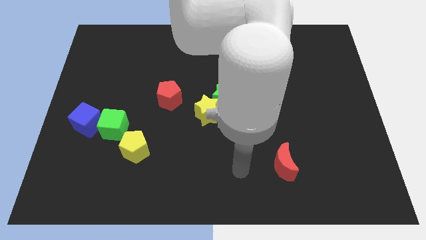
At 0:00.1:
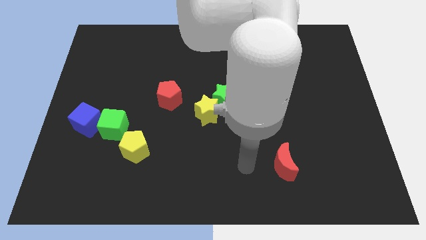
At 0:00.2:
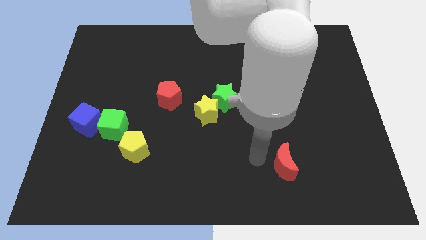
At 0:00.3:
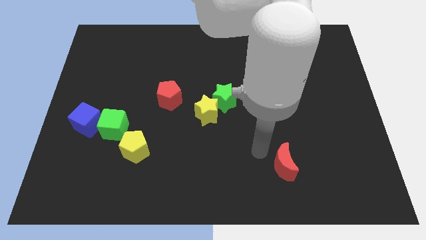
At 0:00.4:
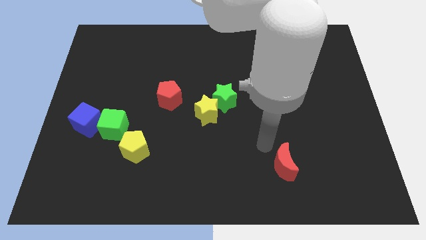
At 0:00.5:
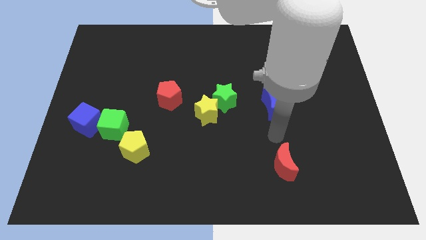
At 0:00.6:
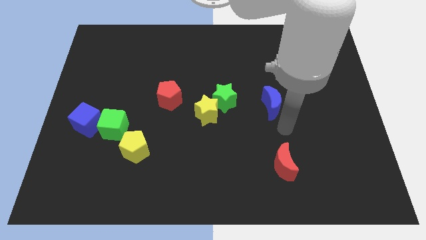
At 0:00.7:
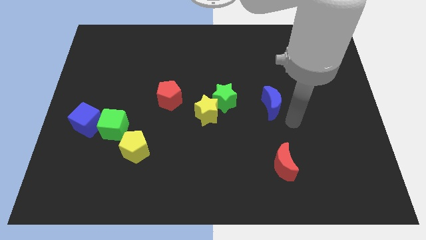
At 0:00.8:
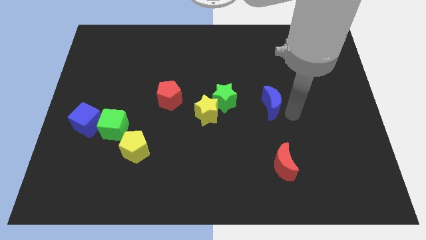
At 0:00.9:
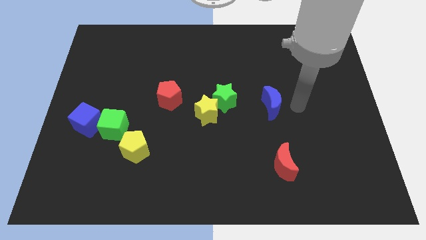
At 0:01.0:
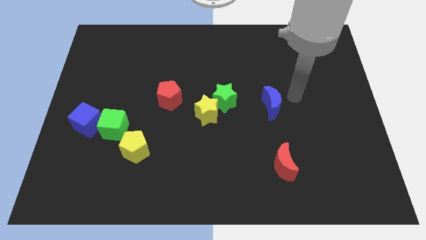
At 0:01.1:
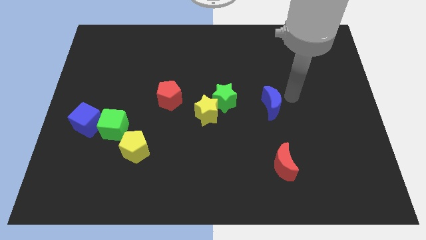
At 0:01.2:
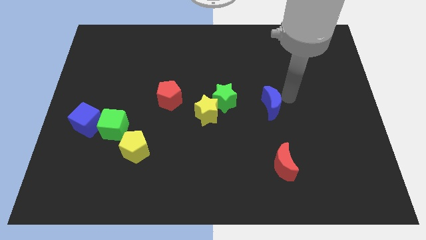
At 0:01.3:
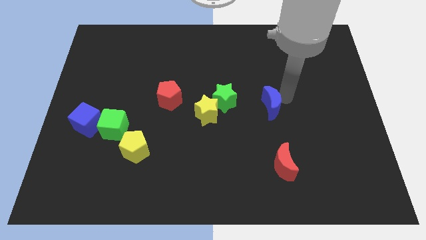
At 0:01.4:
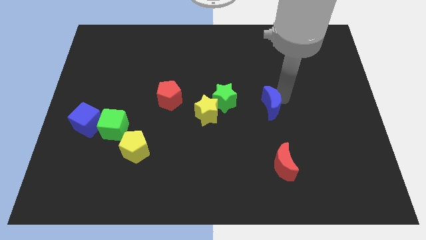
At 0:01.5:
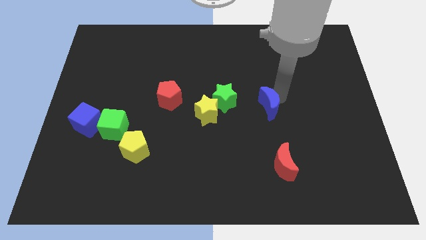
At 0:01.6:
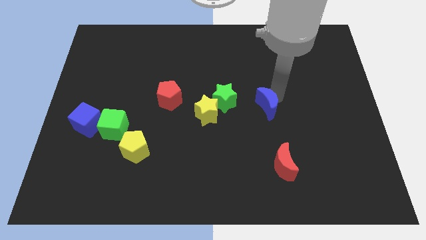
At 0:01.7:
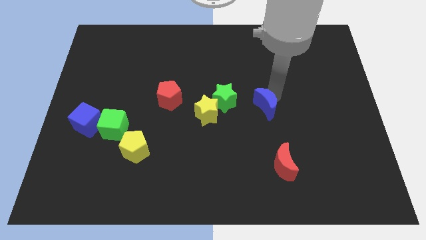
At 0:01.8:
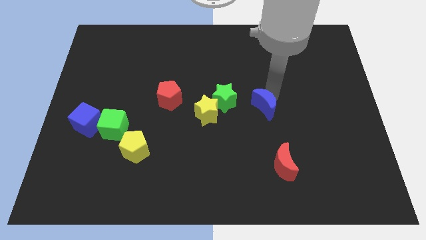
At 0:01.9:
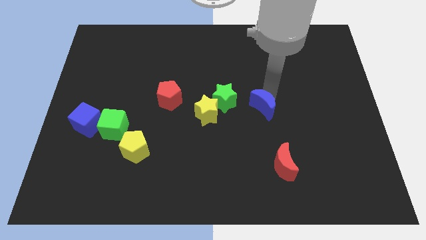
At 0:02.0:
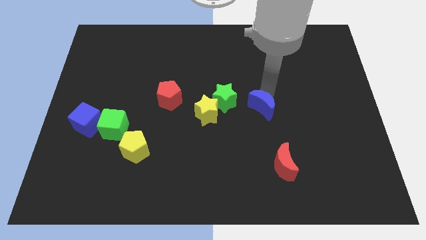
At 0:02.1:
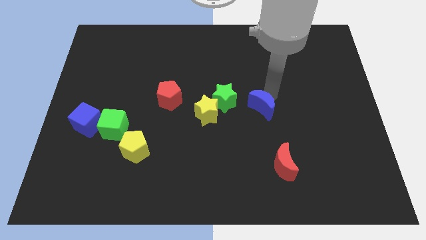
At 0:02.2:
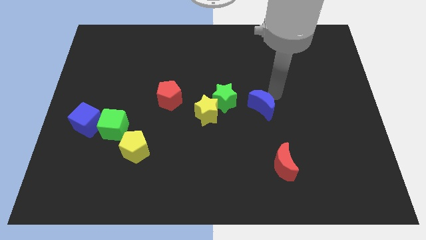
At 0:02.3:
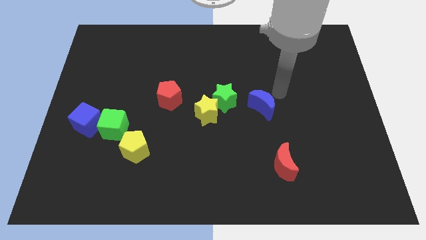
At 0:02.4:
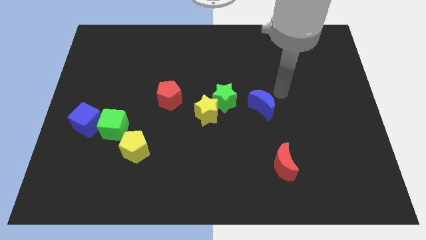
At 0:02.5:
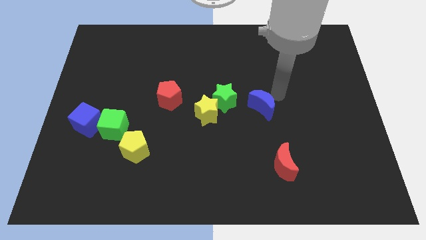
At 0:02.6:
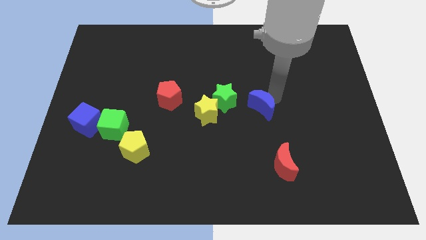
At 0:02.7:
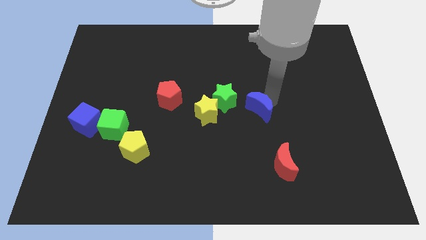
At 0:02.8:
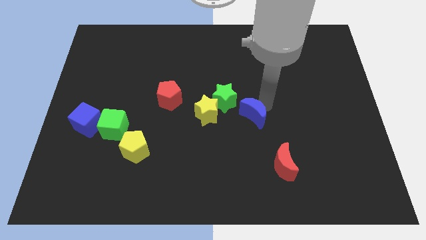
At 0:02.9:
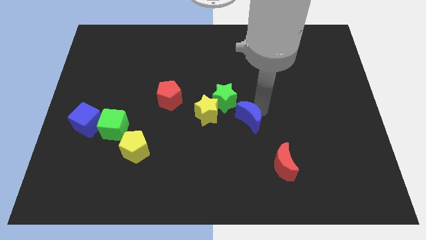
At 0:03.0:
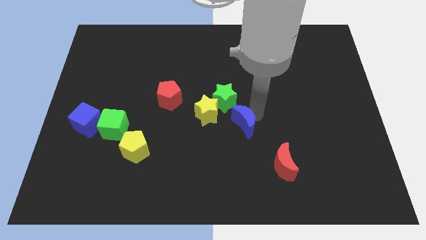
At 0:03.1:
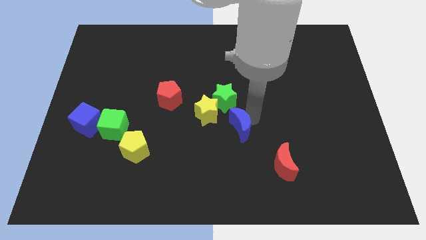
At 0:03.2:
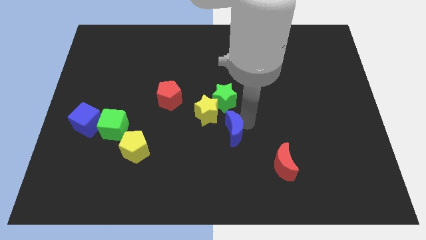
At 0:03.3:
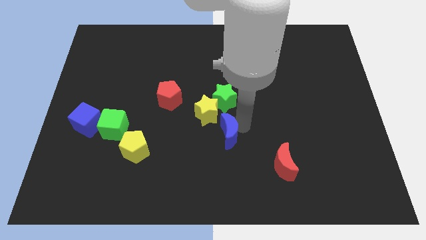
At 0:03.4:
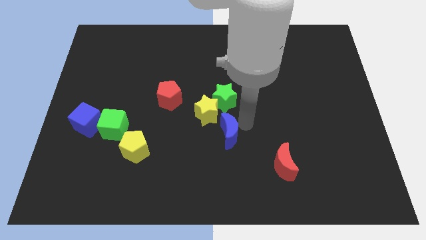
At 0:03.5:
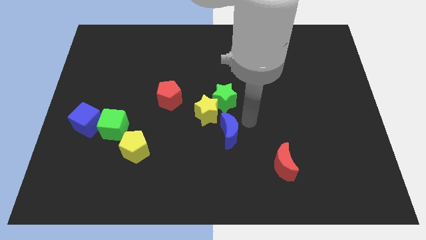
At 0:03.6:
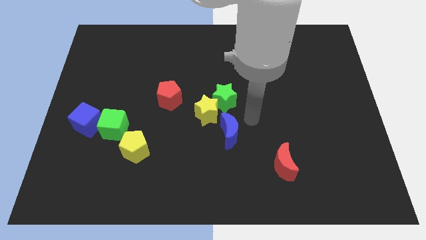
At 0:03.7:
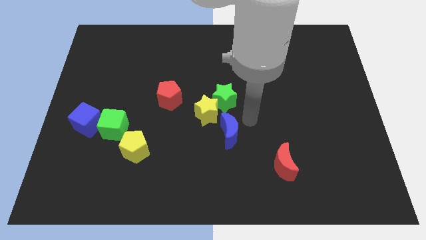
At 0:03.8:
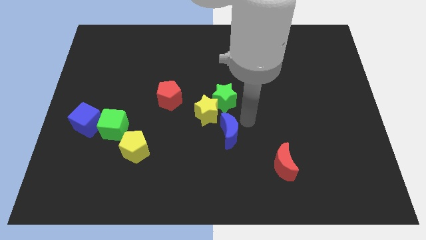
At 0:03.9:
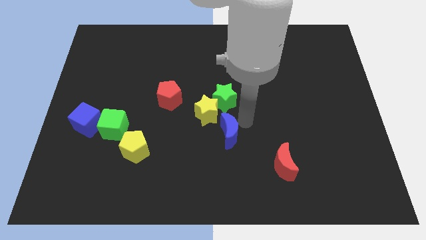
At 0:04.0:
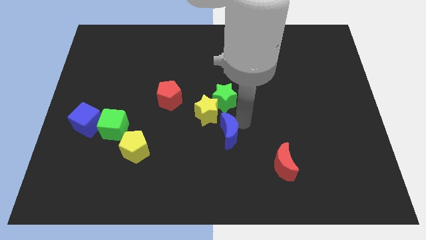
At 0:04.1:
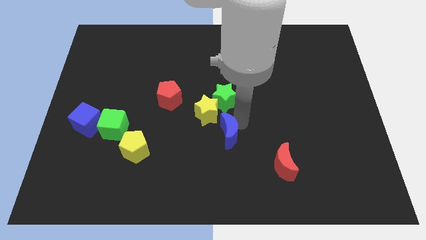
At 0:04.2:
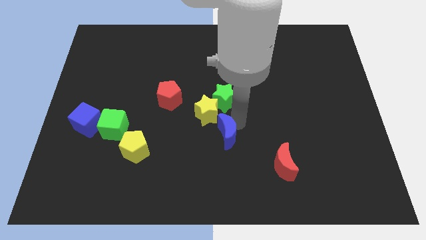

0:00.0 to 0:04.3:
push the blue moon below the yellow star

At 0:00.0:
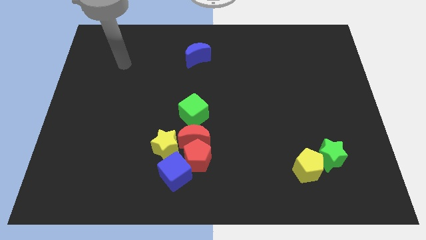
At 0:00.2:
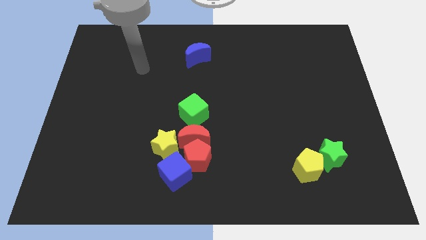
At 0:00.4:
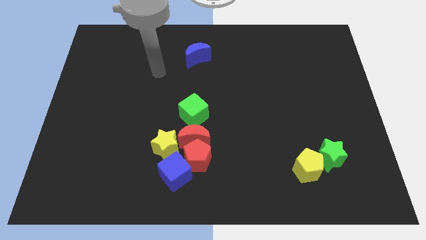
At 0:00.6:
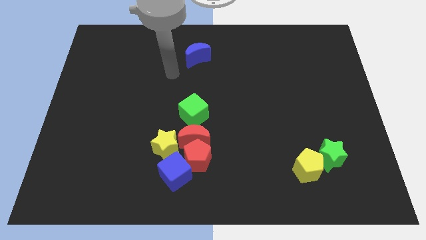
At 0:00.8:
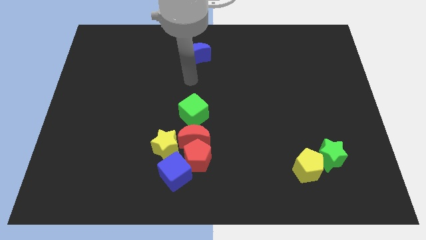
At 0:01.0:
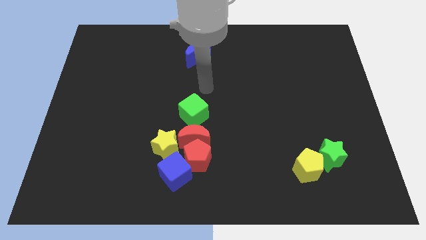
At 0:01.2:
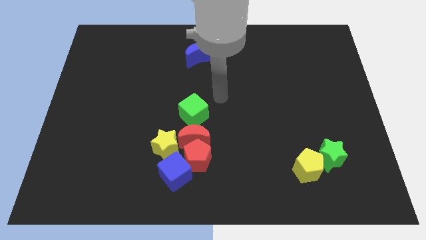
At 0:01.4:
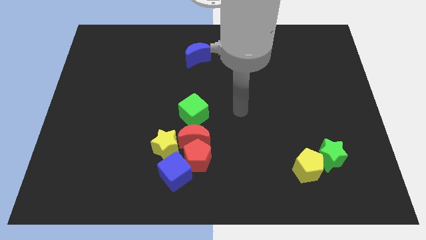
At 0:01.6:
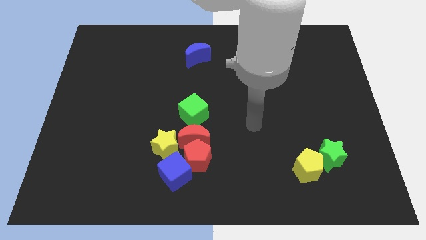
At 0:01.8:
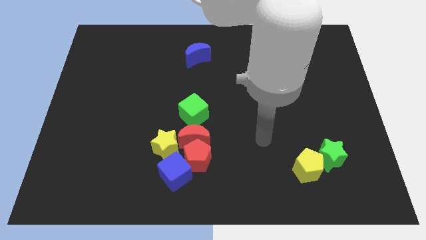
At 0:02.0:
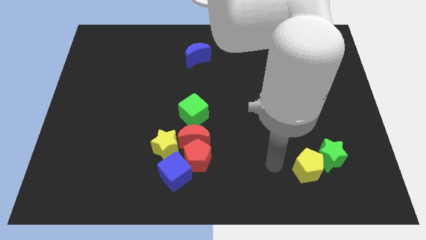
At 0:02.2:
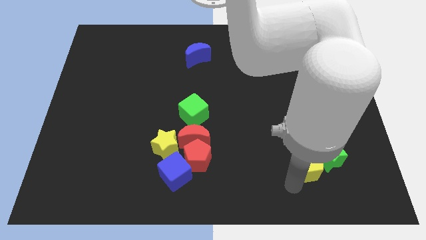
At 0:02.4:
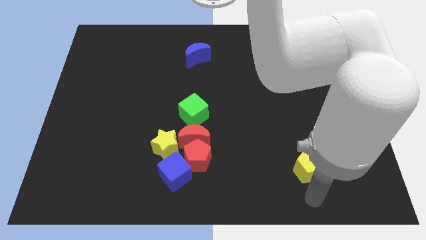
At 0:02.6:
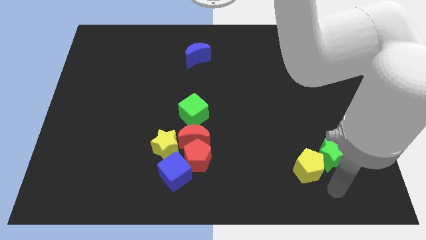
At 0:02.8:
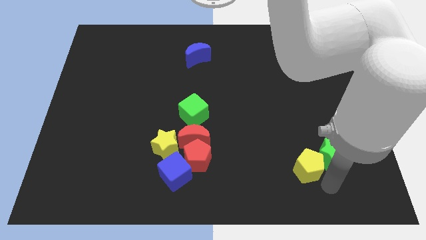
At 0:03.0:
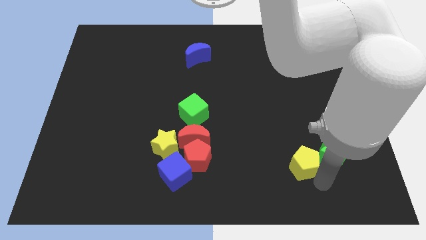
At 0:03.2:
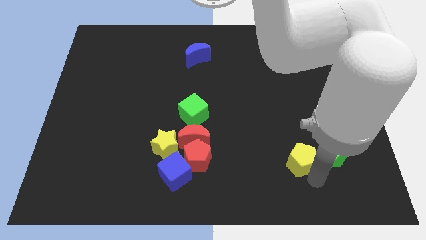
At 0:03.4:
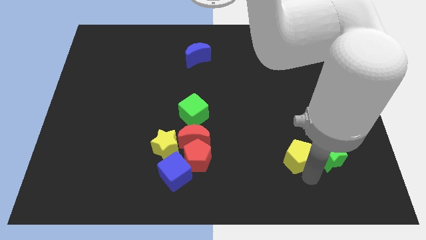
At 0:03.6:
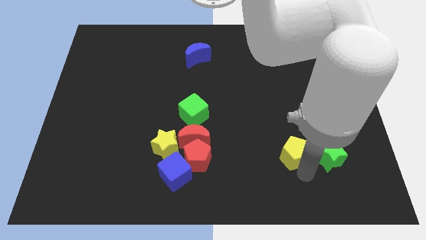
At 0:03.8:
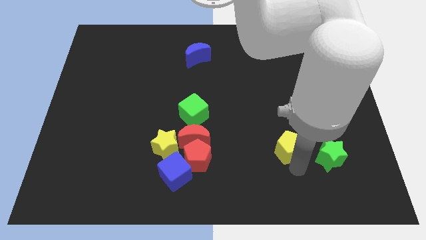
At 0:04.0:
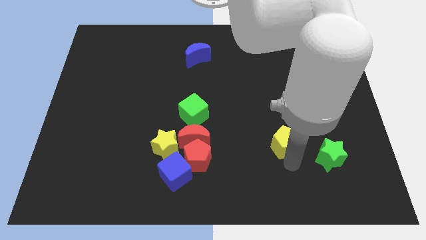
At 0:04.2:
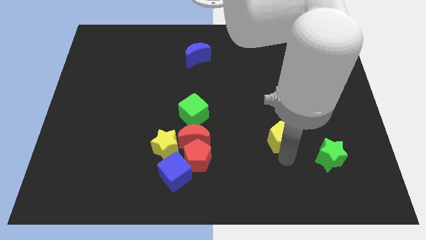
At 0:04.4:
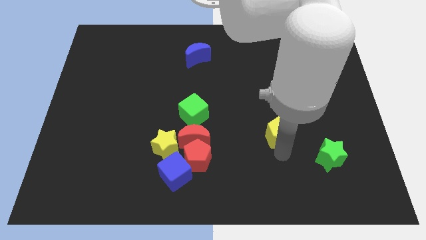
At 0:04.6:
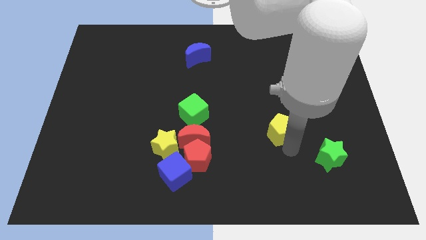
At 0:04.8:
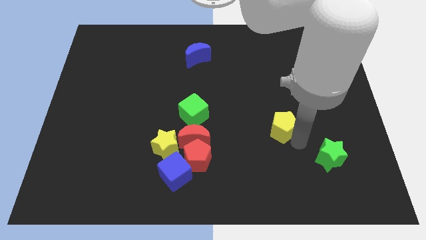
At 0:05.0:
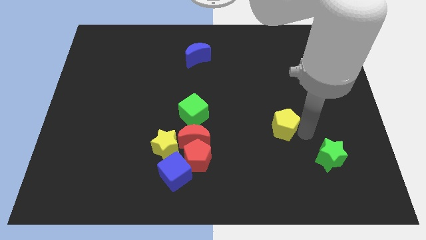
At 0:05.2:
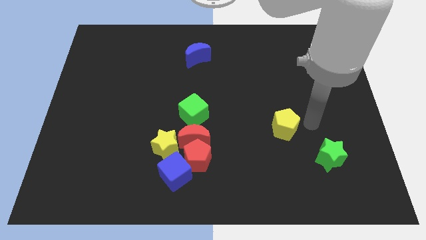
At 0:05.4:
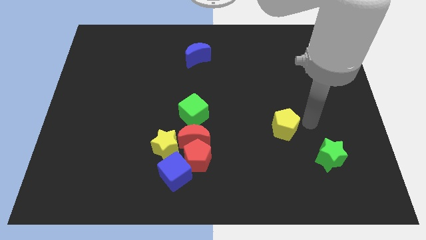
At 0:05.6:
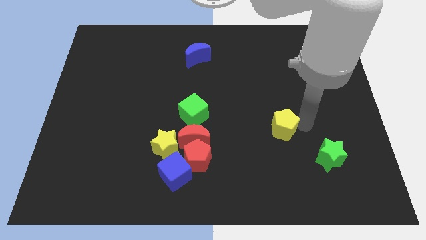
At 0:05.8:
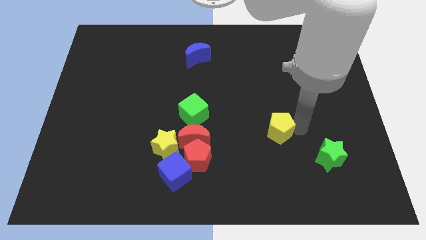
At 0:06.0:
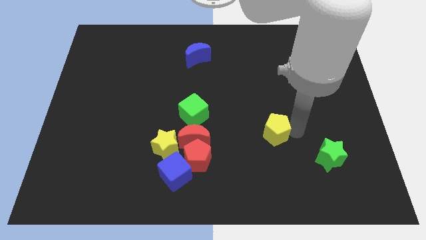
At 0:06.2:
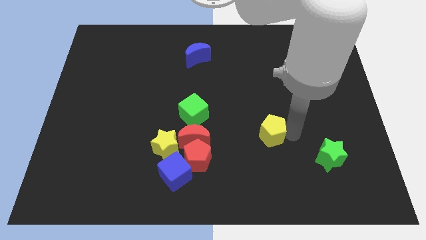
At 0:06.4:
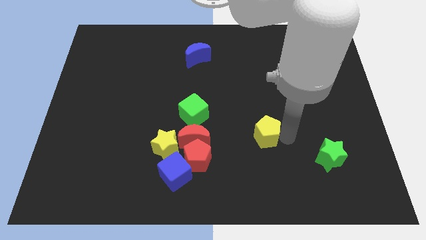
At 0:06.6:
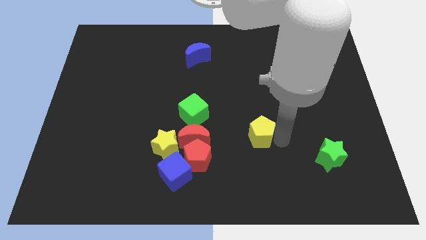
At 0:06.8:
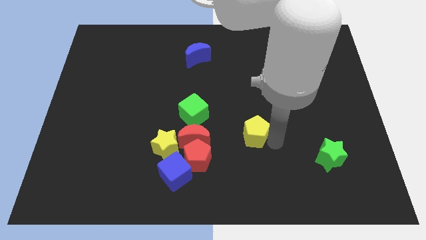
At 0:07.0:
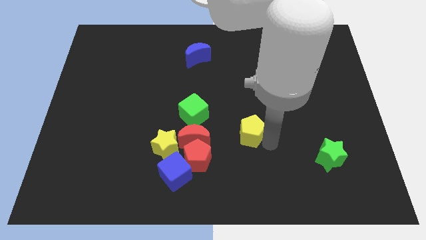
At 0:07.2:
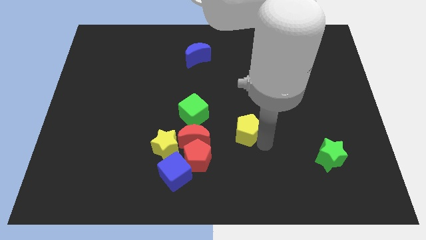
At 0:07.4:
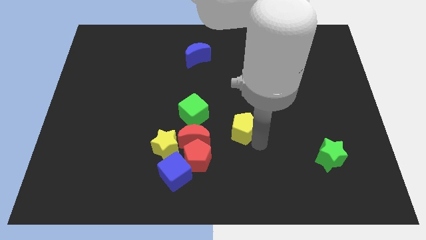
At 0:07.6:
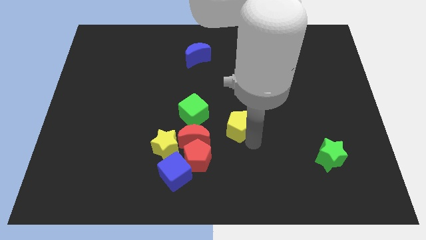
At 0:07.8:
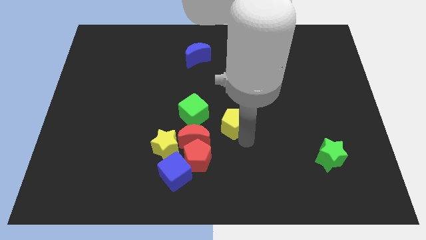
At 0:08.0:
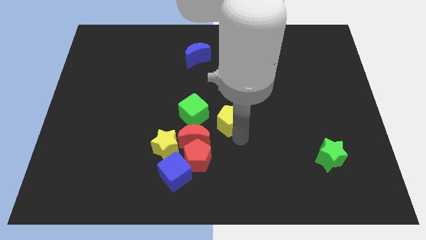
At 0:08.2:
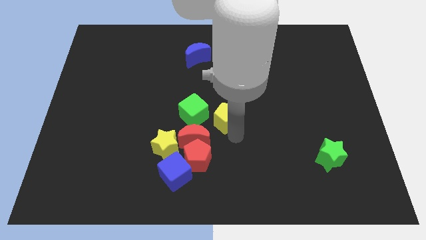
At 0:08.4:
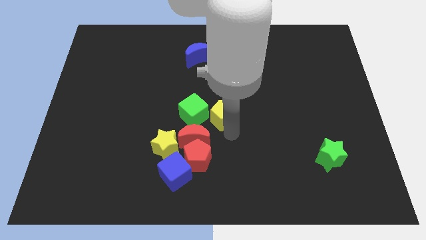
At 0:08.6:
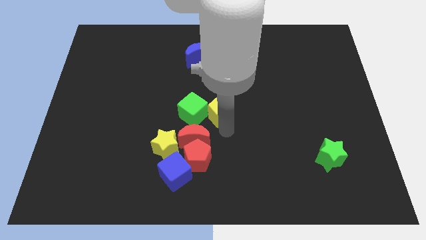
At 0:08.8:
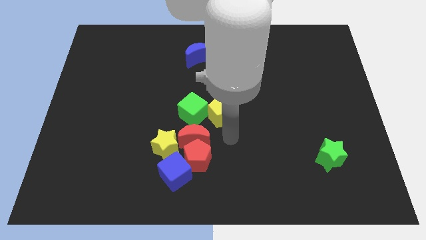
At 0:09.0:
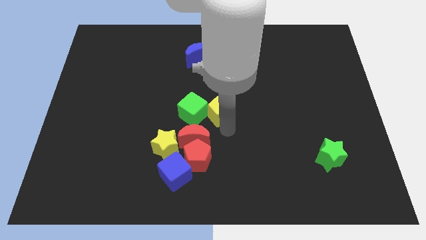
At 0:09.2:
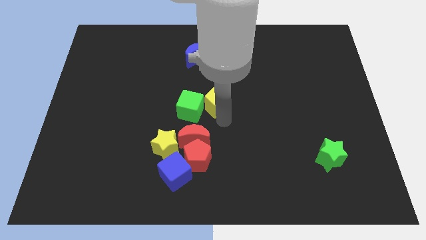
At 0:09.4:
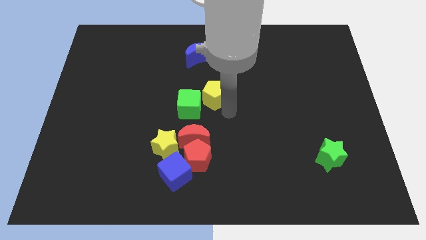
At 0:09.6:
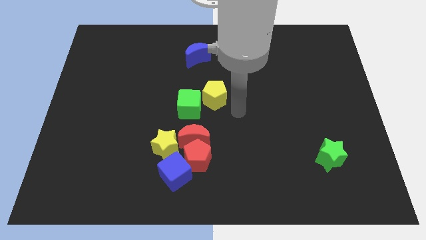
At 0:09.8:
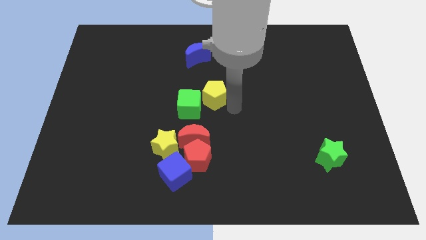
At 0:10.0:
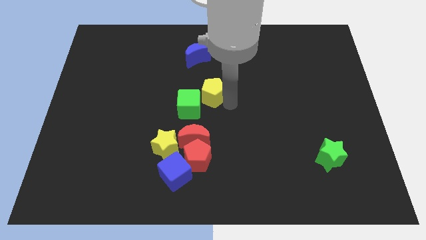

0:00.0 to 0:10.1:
move the yellow pentagon to the bottom side of the blue moon
